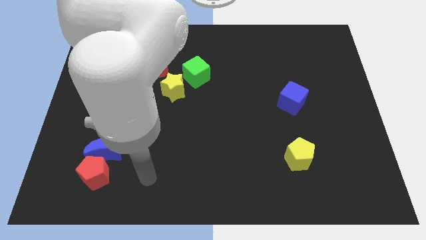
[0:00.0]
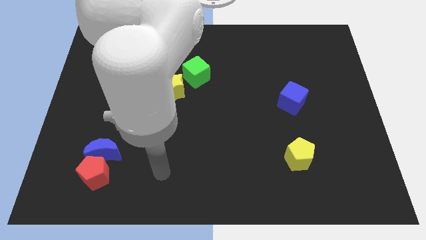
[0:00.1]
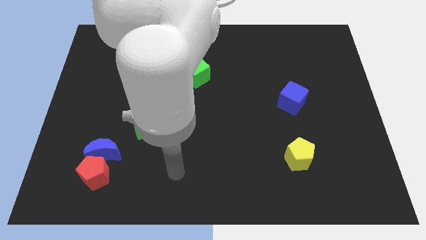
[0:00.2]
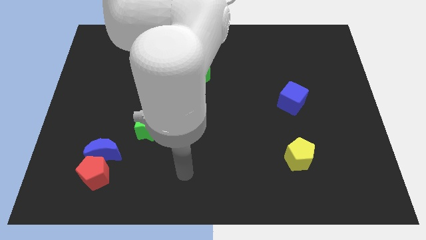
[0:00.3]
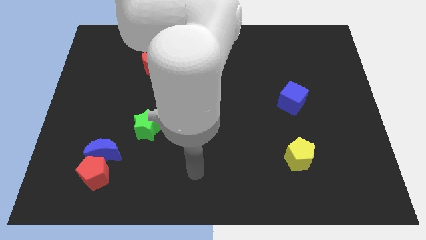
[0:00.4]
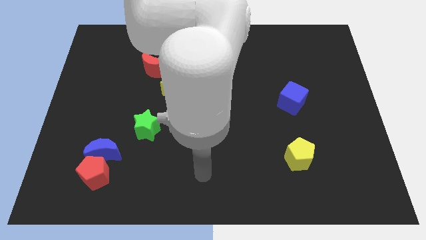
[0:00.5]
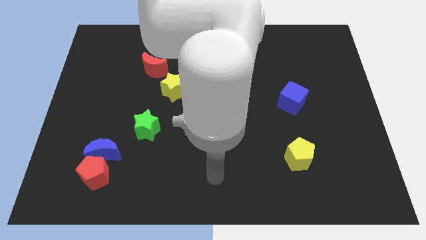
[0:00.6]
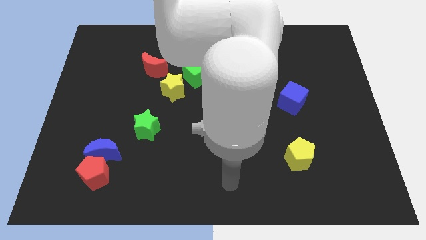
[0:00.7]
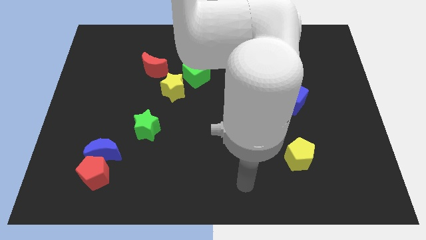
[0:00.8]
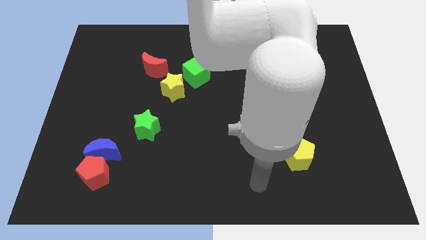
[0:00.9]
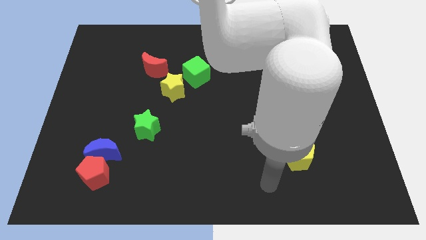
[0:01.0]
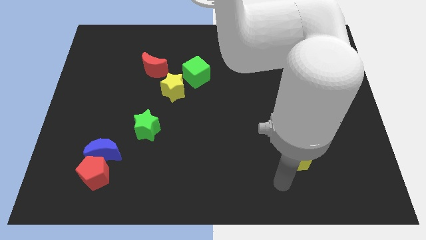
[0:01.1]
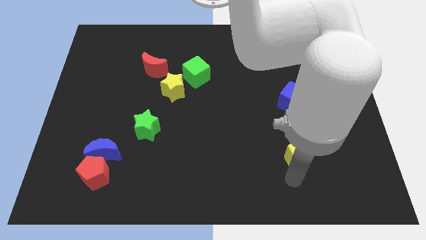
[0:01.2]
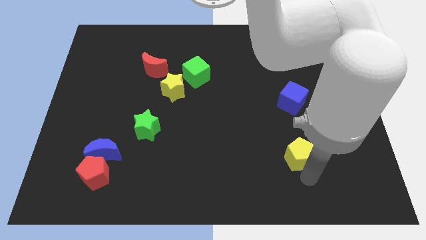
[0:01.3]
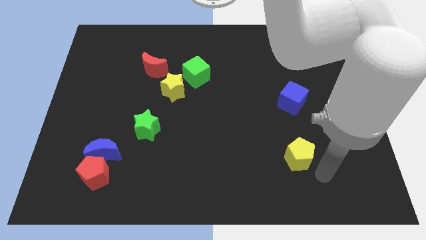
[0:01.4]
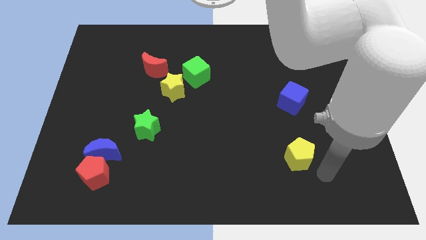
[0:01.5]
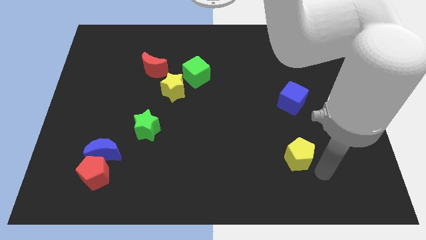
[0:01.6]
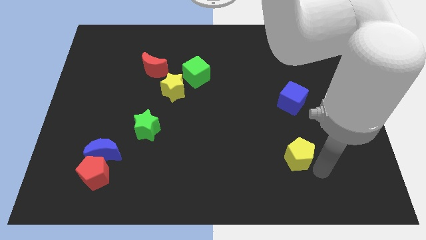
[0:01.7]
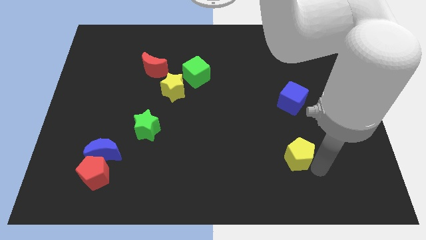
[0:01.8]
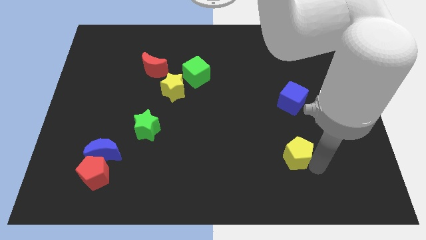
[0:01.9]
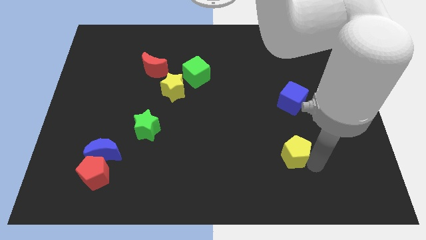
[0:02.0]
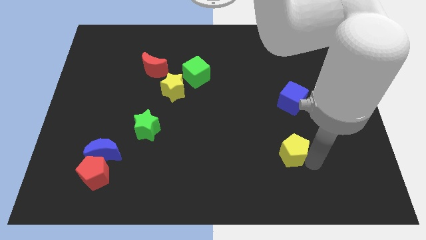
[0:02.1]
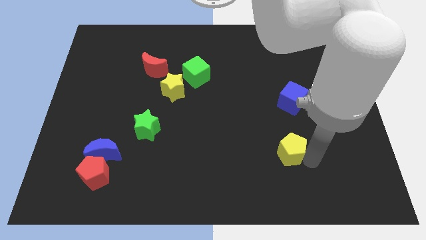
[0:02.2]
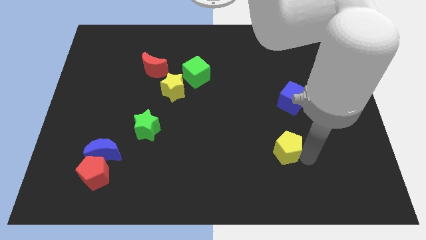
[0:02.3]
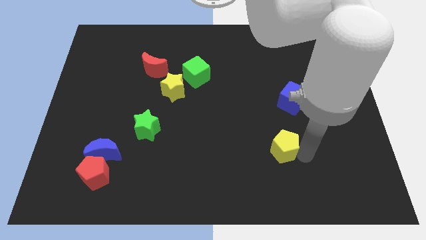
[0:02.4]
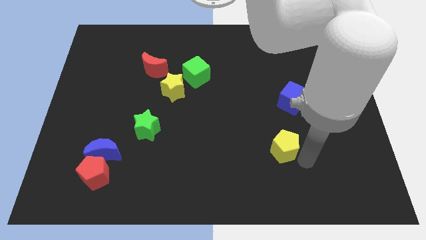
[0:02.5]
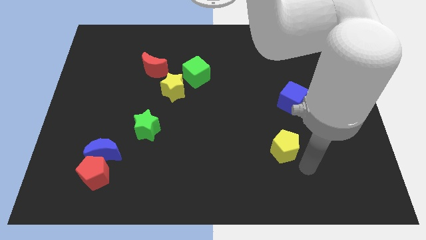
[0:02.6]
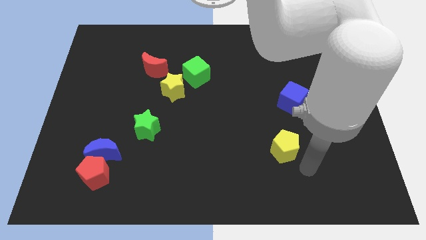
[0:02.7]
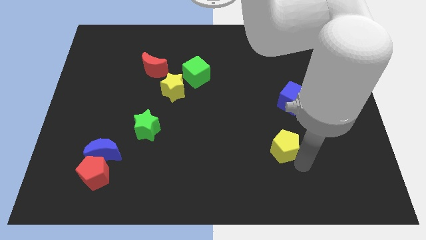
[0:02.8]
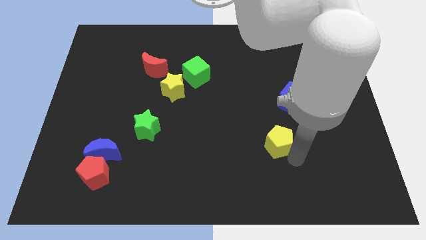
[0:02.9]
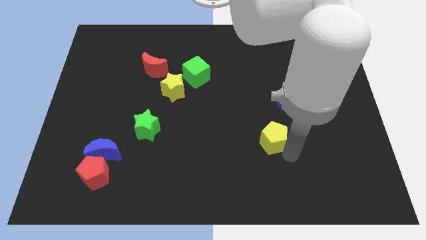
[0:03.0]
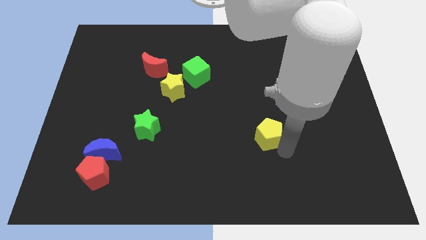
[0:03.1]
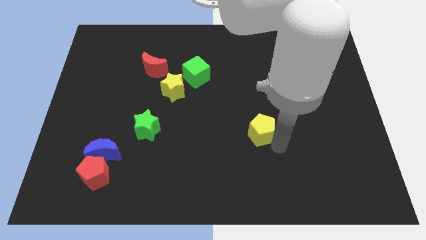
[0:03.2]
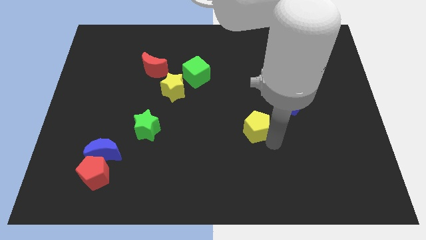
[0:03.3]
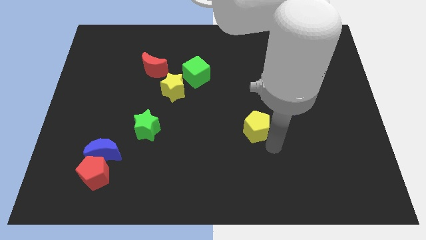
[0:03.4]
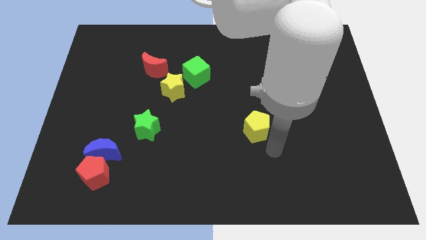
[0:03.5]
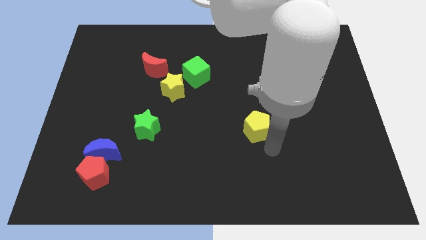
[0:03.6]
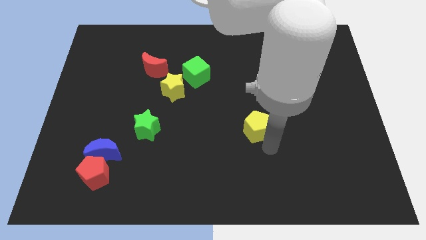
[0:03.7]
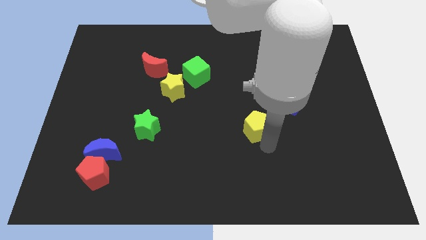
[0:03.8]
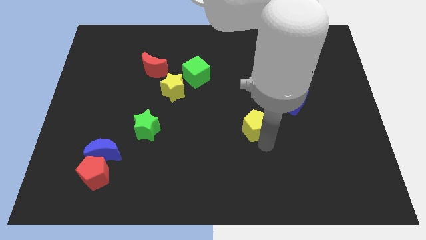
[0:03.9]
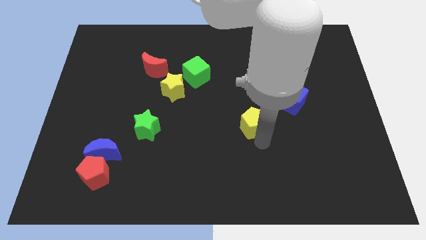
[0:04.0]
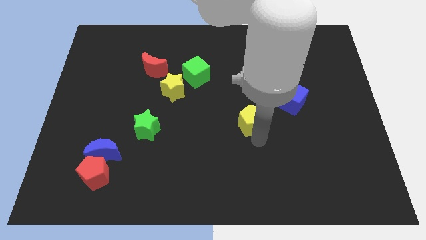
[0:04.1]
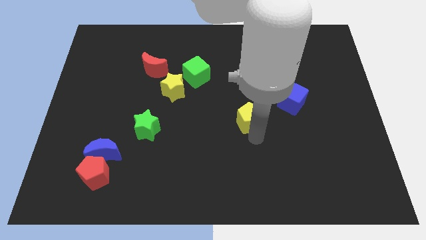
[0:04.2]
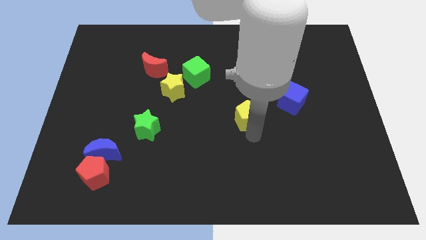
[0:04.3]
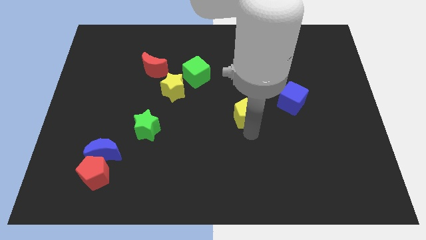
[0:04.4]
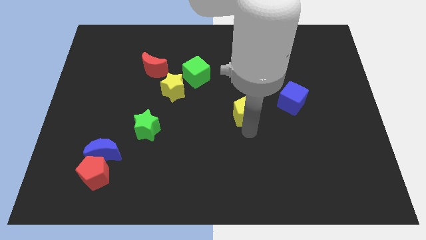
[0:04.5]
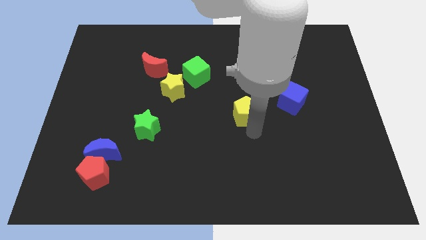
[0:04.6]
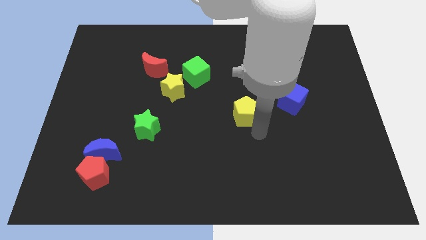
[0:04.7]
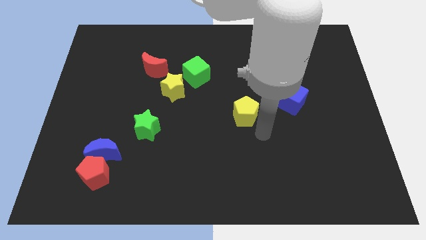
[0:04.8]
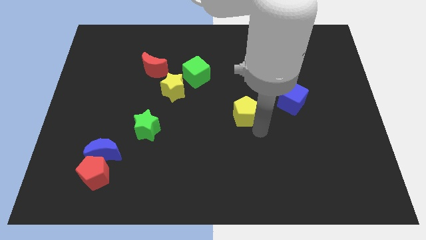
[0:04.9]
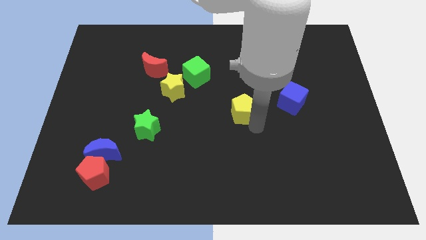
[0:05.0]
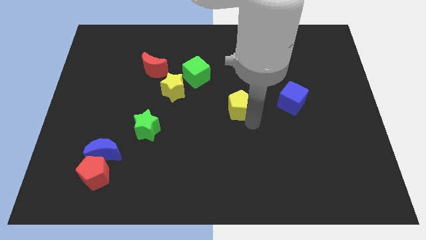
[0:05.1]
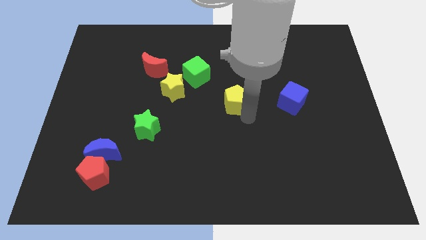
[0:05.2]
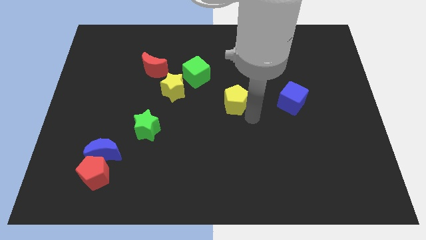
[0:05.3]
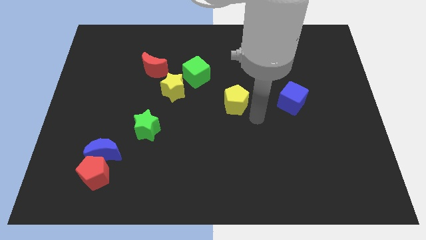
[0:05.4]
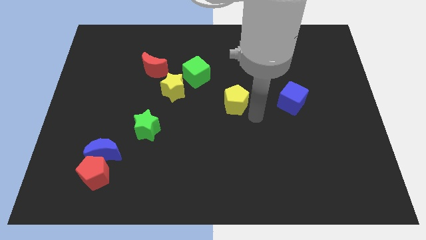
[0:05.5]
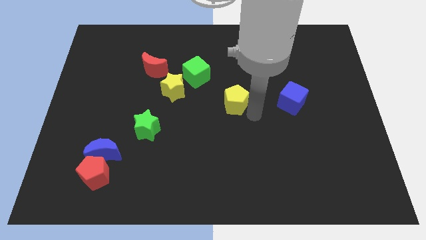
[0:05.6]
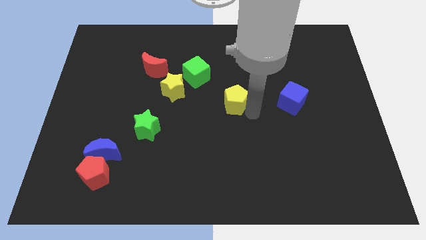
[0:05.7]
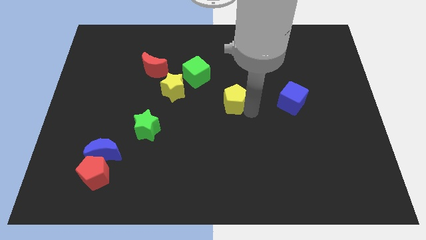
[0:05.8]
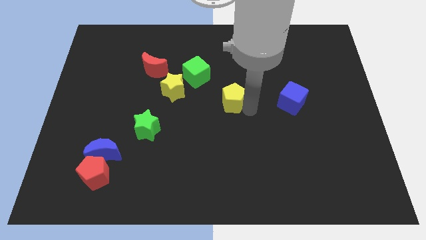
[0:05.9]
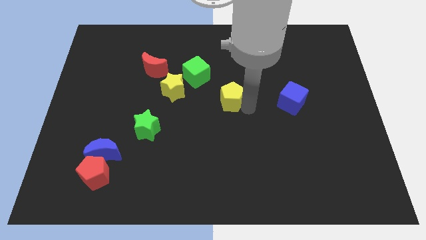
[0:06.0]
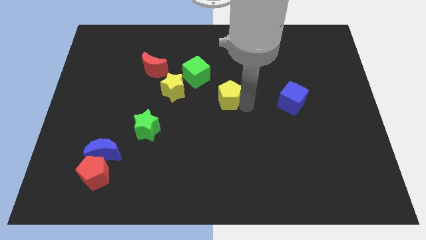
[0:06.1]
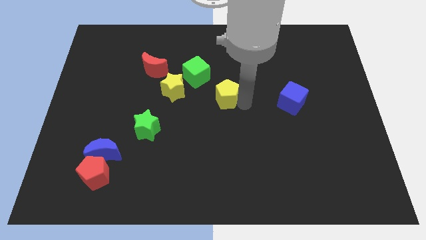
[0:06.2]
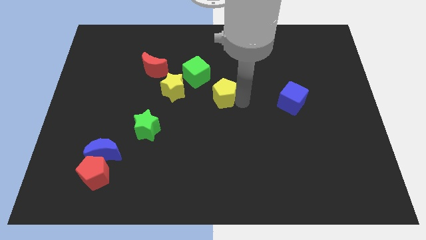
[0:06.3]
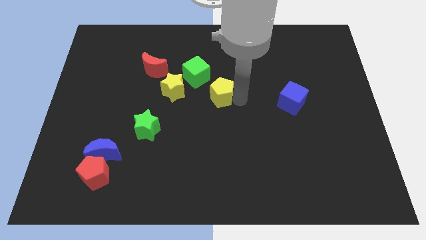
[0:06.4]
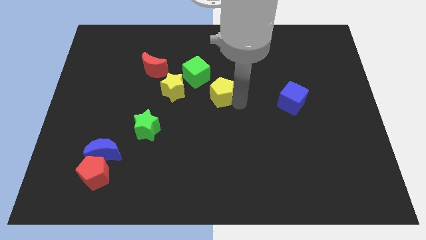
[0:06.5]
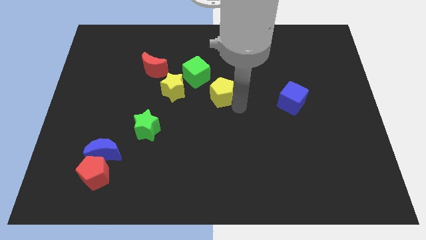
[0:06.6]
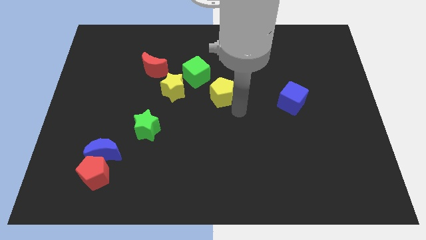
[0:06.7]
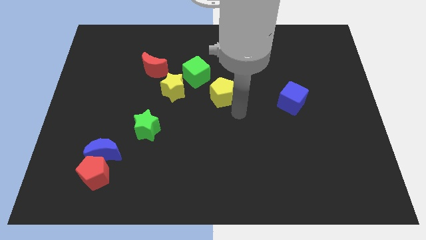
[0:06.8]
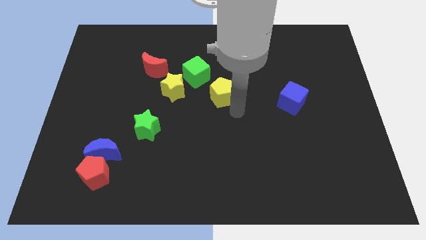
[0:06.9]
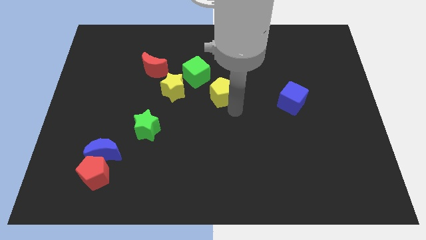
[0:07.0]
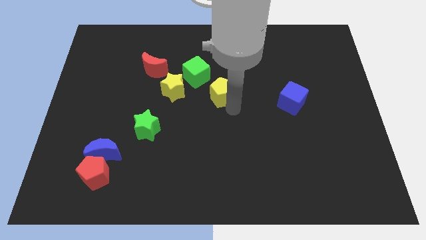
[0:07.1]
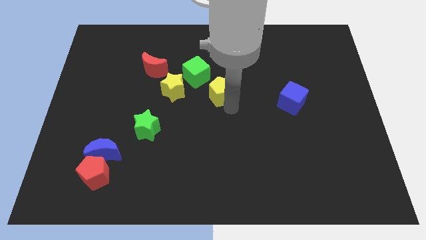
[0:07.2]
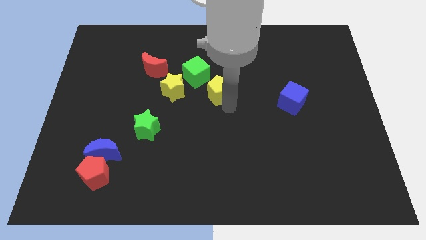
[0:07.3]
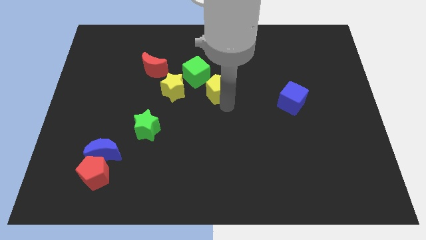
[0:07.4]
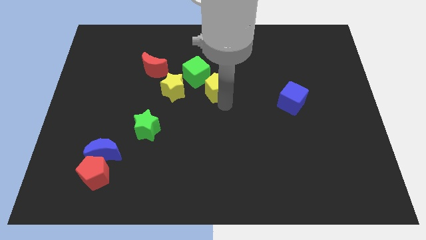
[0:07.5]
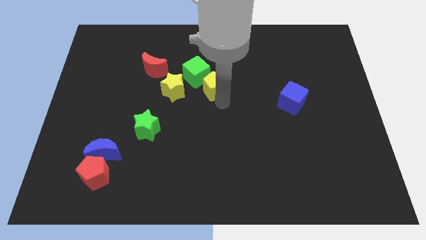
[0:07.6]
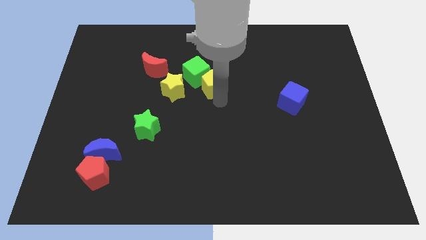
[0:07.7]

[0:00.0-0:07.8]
slide the yellow pentagon towards the green cube

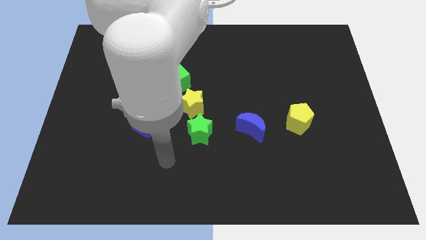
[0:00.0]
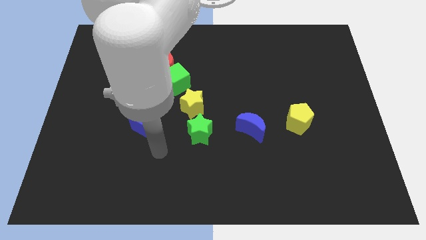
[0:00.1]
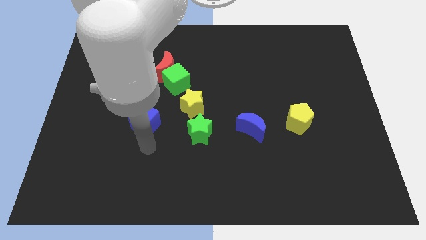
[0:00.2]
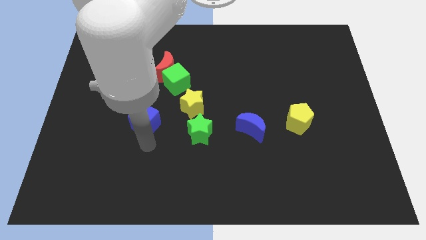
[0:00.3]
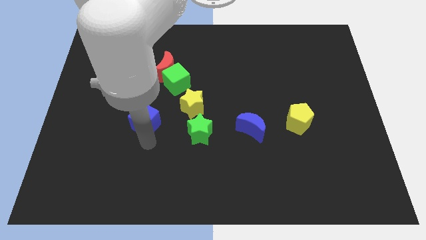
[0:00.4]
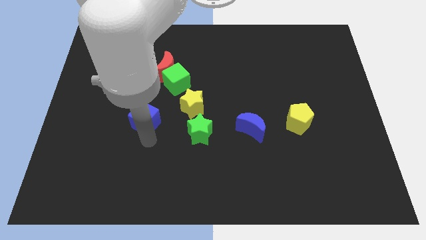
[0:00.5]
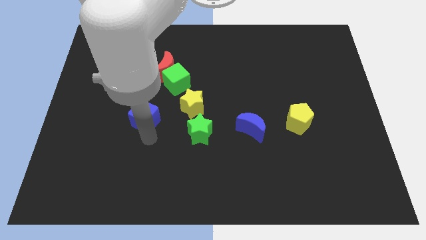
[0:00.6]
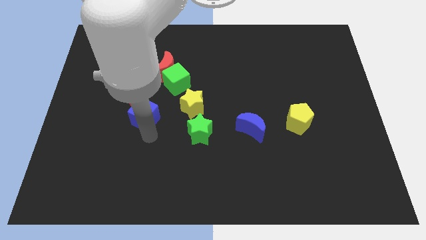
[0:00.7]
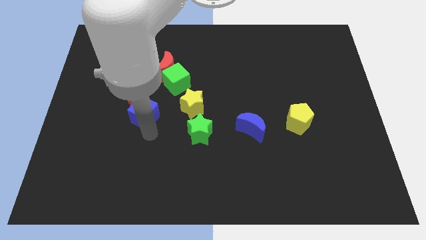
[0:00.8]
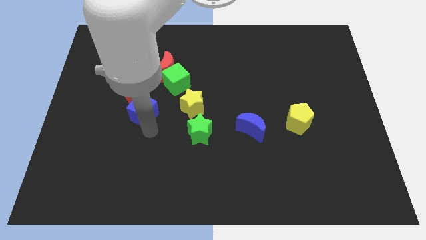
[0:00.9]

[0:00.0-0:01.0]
slide the blue cube close to the red pentagon
